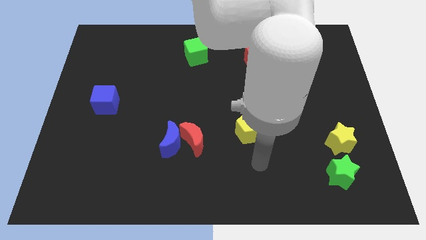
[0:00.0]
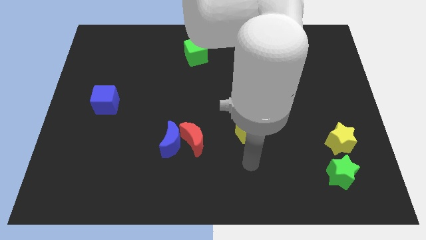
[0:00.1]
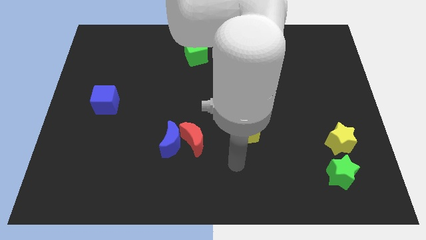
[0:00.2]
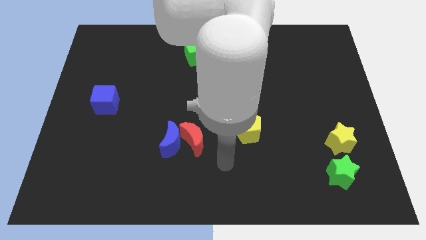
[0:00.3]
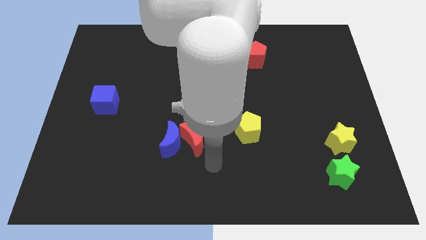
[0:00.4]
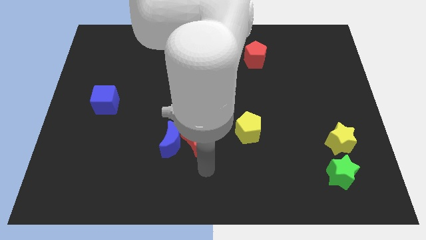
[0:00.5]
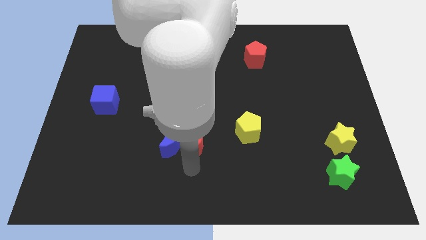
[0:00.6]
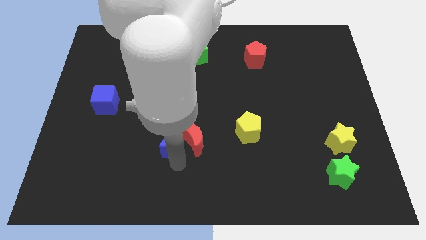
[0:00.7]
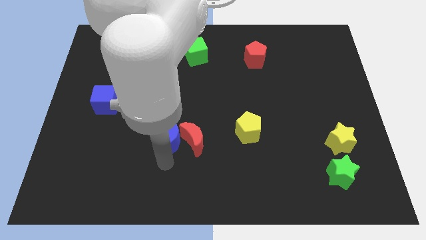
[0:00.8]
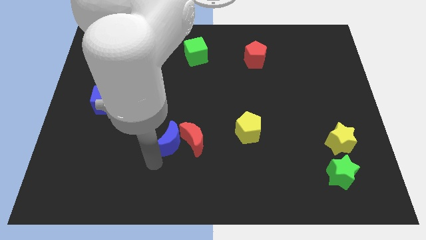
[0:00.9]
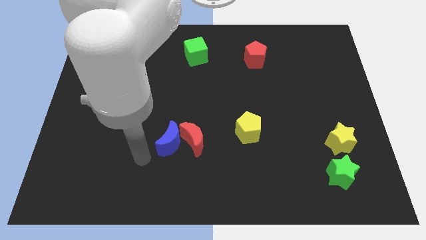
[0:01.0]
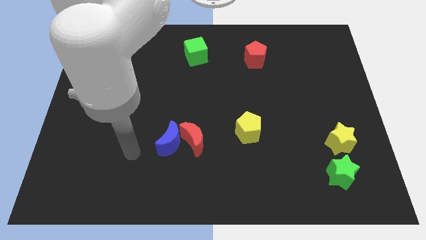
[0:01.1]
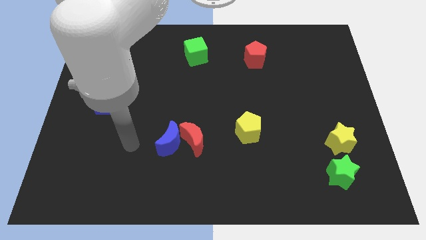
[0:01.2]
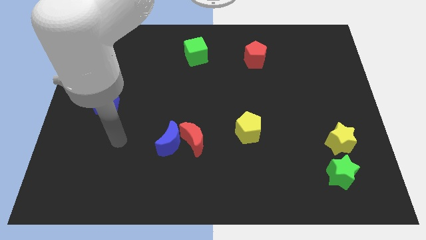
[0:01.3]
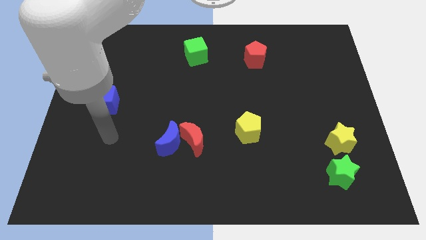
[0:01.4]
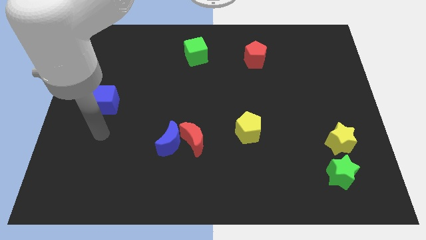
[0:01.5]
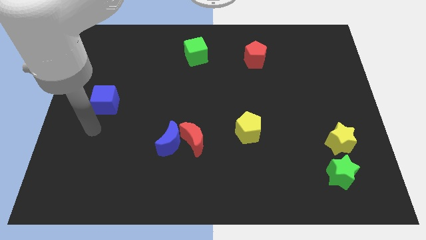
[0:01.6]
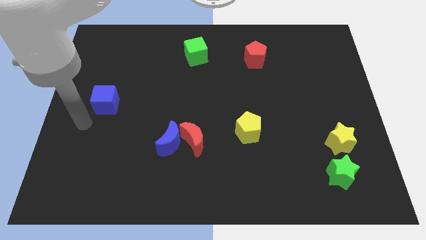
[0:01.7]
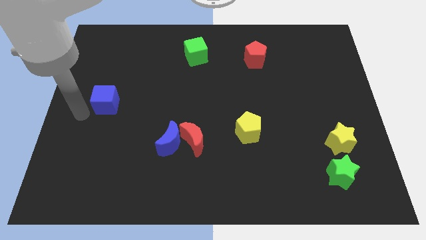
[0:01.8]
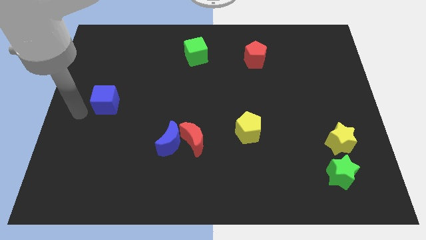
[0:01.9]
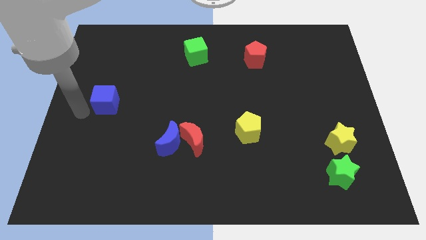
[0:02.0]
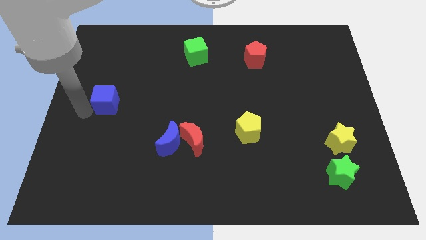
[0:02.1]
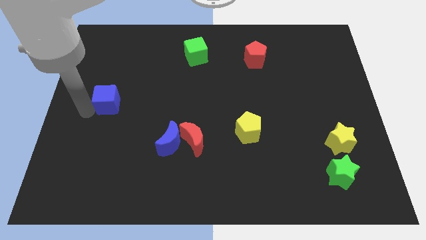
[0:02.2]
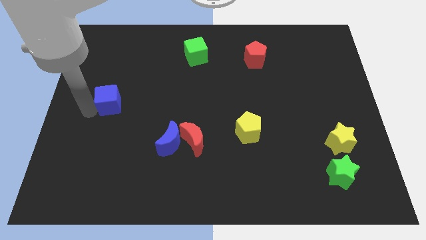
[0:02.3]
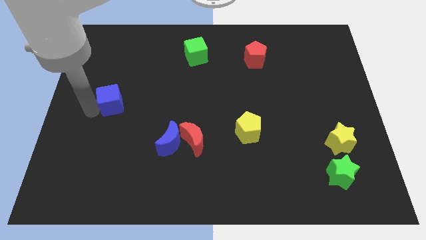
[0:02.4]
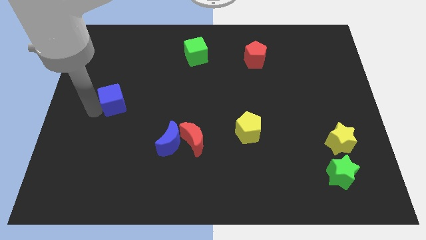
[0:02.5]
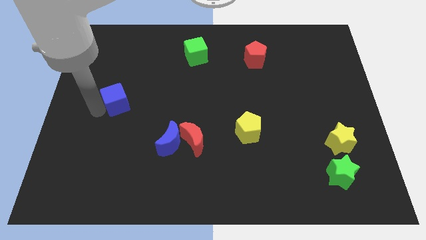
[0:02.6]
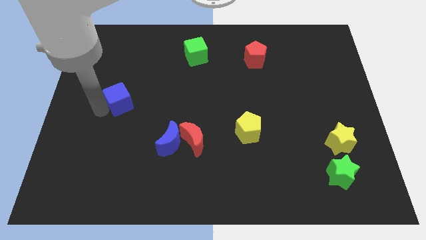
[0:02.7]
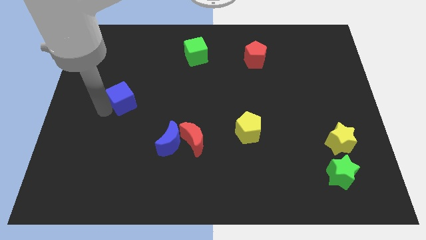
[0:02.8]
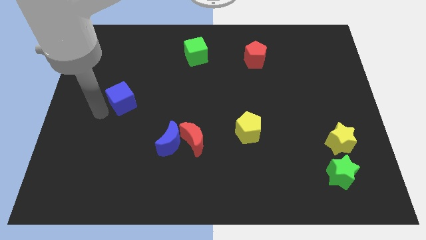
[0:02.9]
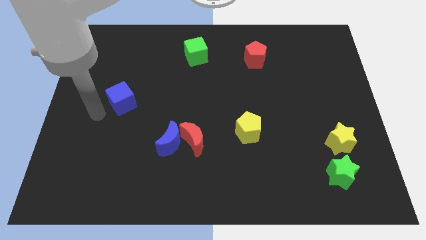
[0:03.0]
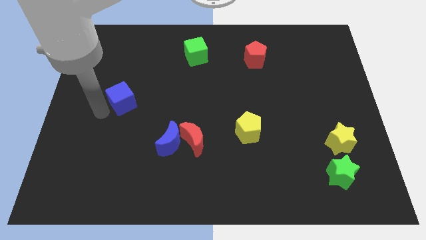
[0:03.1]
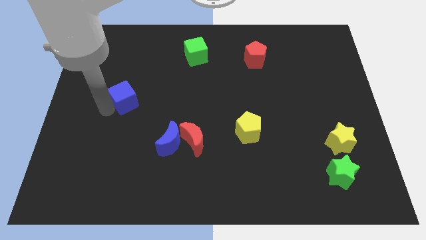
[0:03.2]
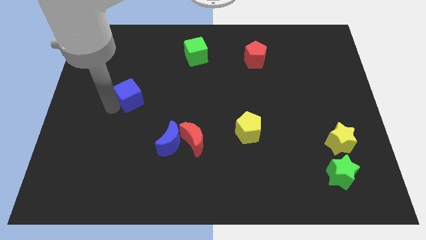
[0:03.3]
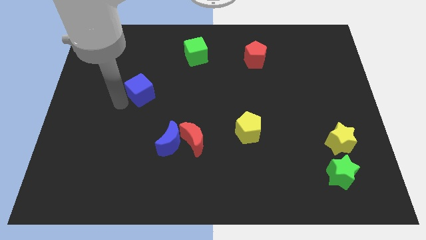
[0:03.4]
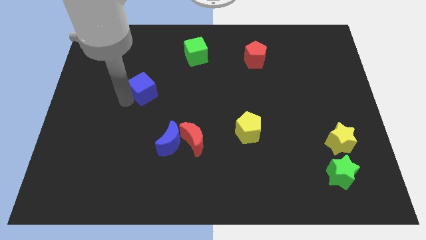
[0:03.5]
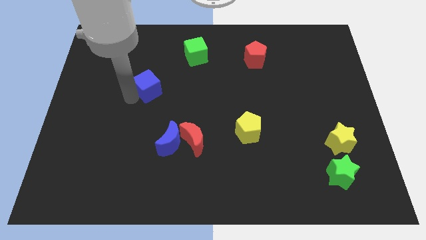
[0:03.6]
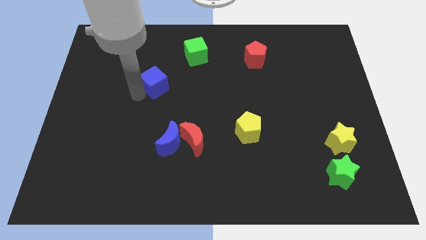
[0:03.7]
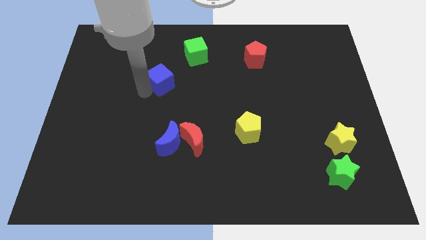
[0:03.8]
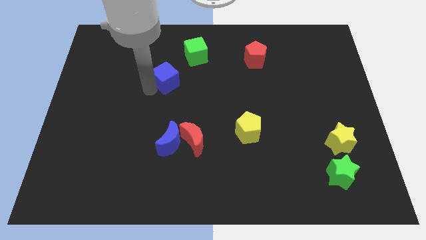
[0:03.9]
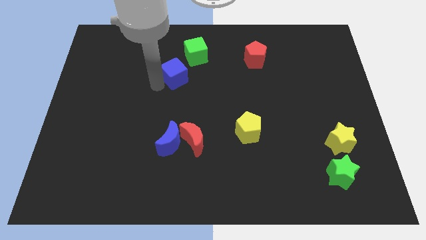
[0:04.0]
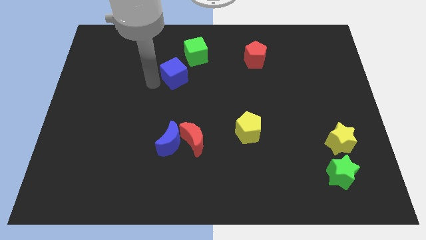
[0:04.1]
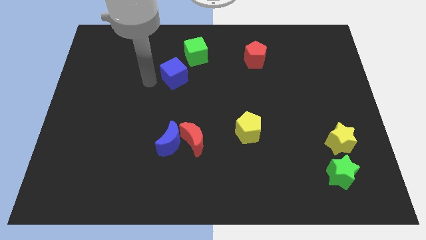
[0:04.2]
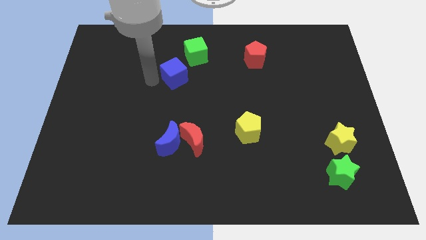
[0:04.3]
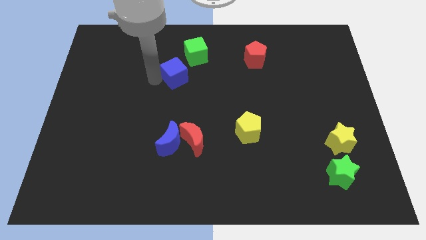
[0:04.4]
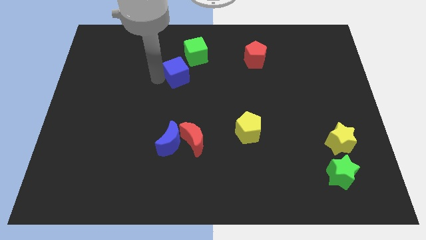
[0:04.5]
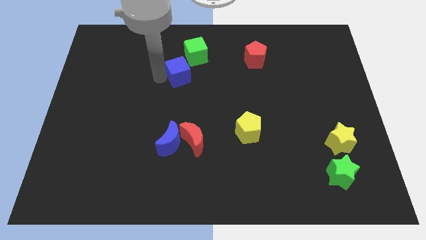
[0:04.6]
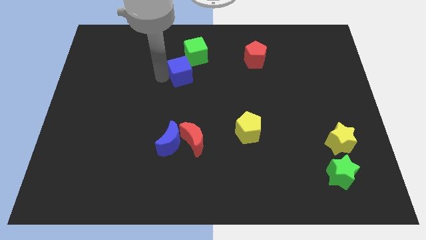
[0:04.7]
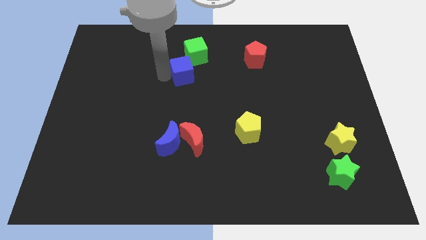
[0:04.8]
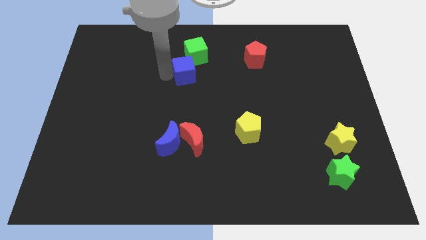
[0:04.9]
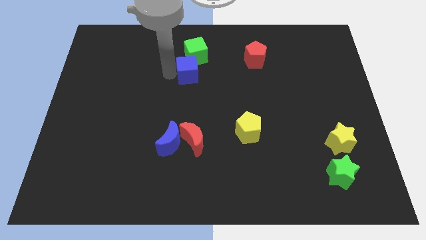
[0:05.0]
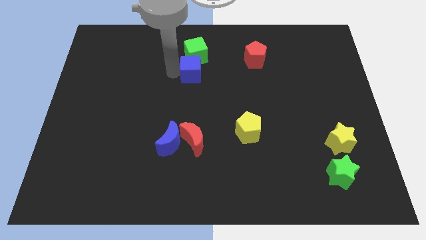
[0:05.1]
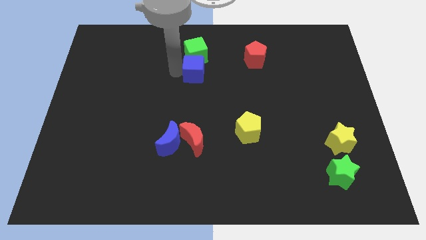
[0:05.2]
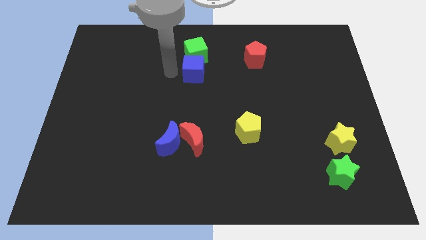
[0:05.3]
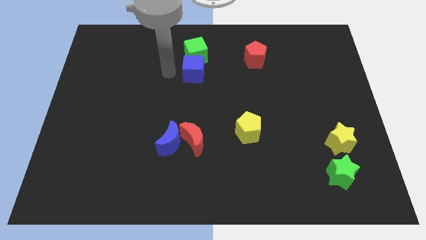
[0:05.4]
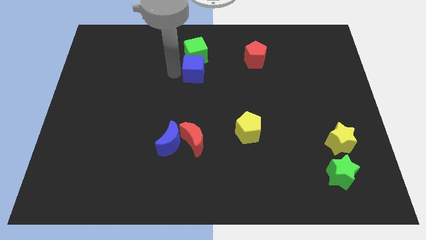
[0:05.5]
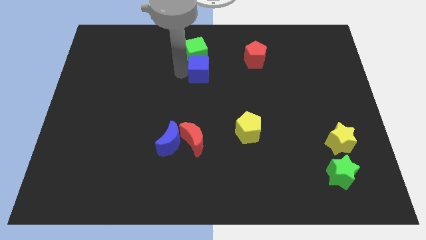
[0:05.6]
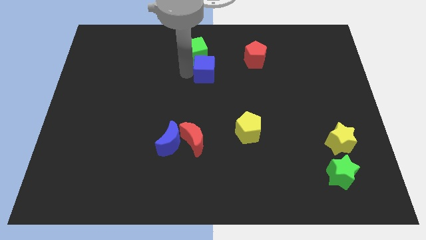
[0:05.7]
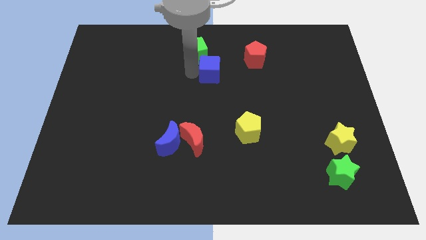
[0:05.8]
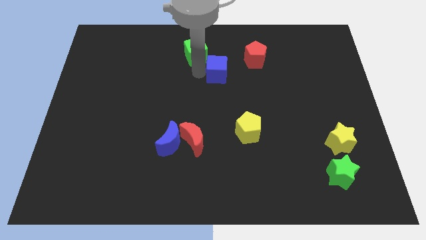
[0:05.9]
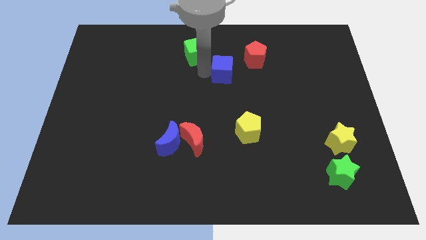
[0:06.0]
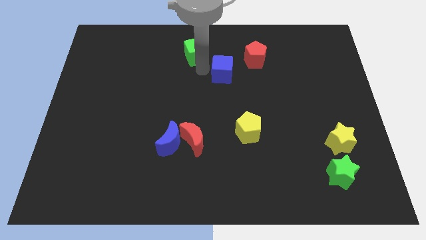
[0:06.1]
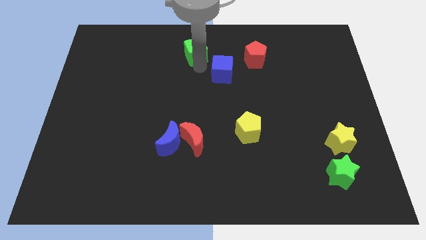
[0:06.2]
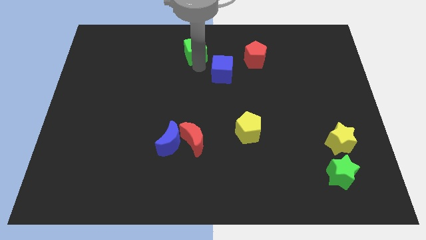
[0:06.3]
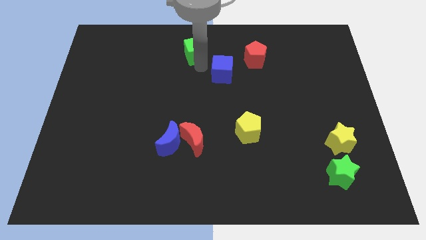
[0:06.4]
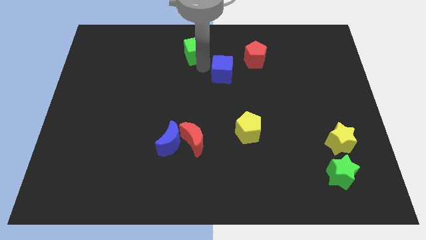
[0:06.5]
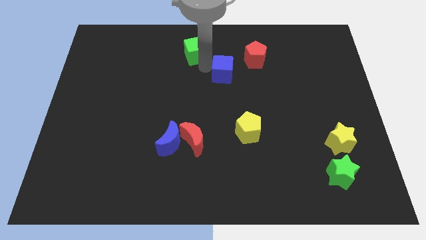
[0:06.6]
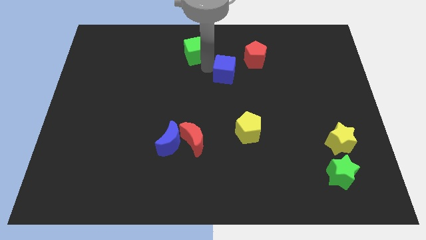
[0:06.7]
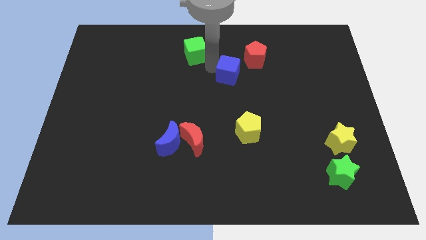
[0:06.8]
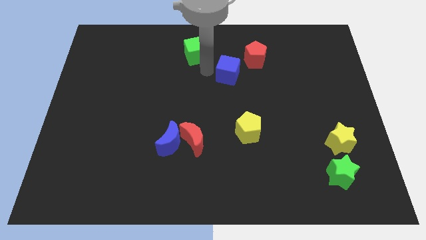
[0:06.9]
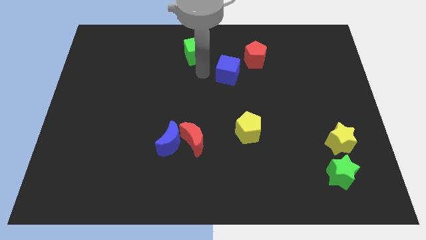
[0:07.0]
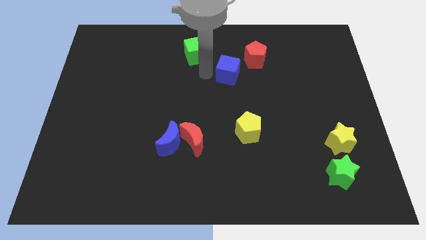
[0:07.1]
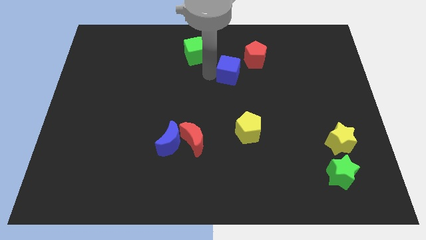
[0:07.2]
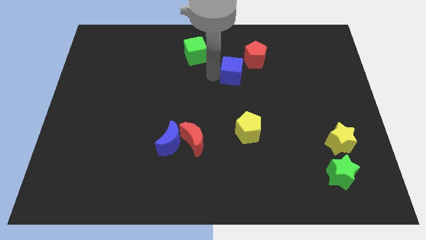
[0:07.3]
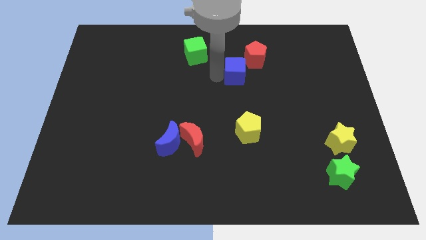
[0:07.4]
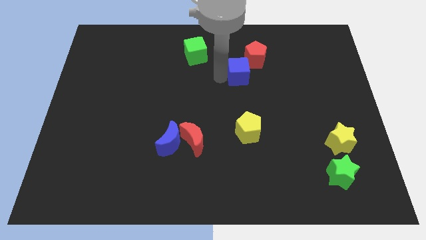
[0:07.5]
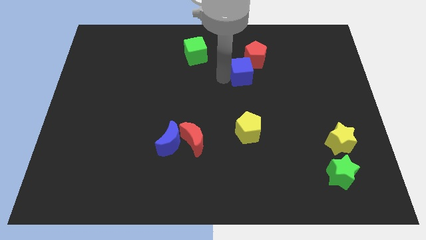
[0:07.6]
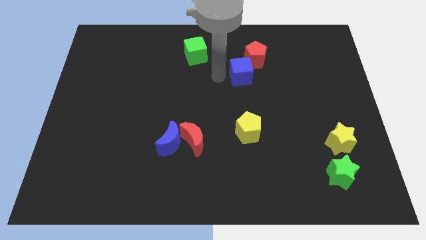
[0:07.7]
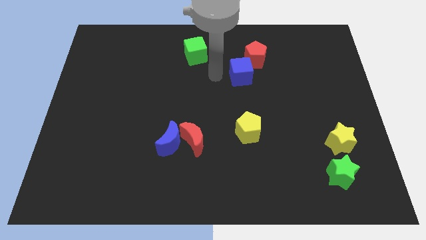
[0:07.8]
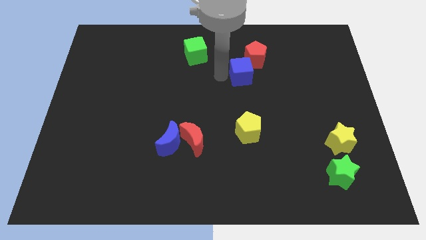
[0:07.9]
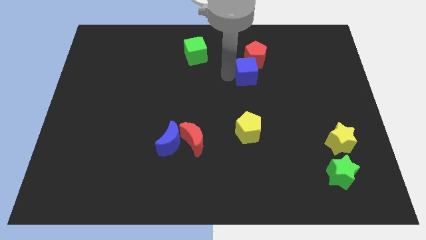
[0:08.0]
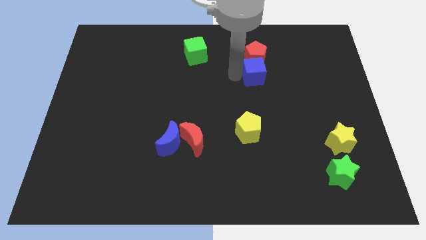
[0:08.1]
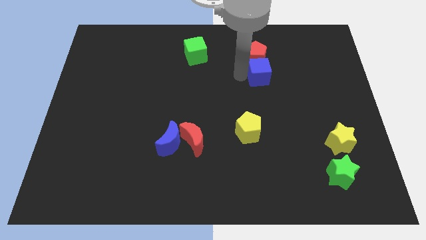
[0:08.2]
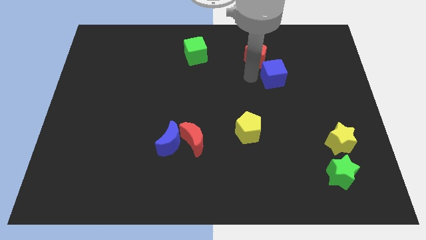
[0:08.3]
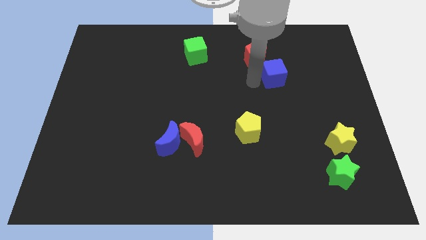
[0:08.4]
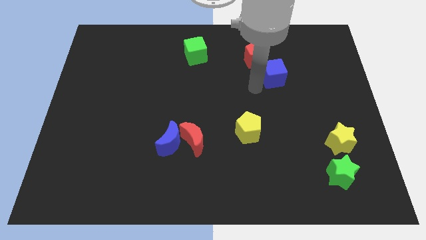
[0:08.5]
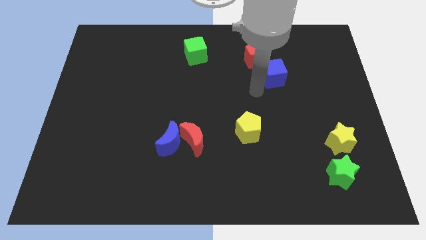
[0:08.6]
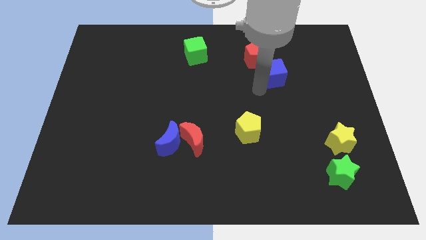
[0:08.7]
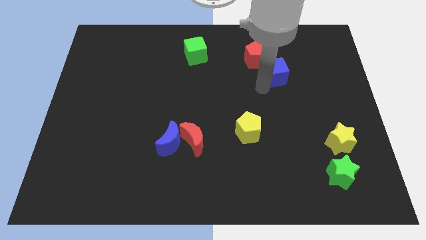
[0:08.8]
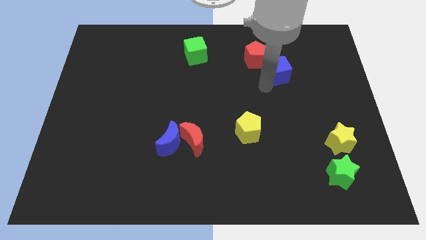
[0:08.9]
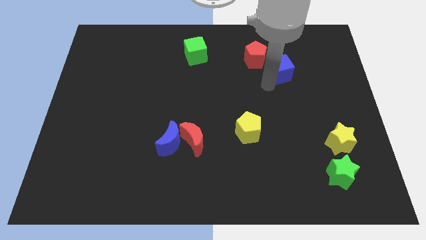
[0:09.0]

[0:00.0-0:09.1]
slide the blue cube right of the red pentagon
